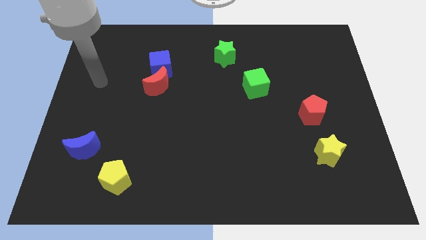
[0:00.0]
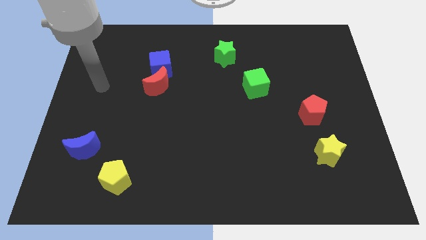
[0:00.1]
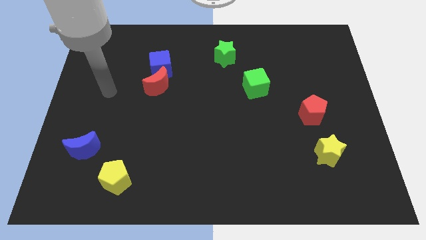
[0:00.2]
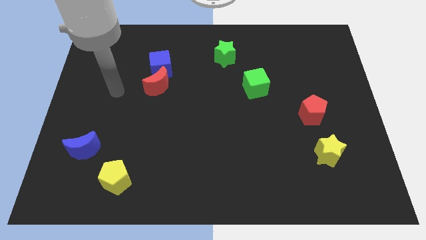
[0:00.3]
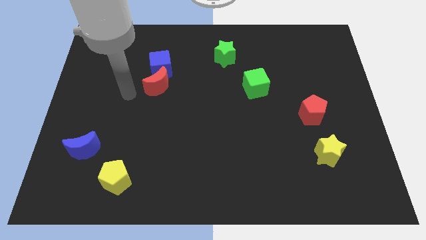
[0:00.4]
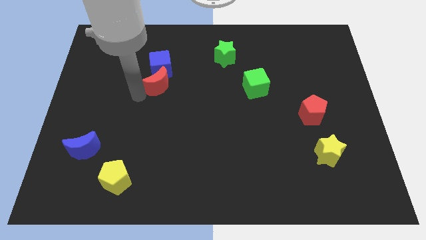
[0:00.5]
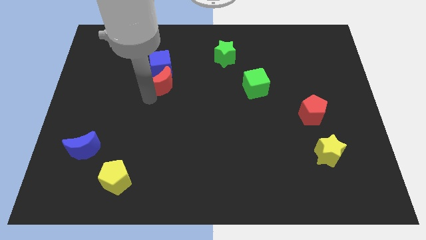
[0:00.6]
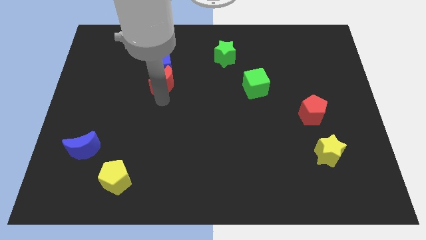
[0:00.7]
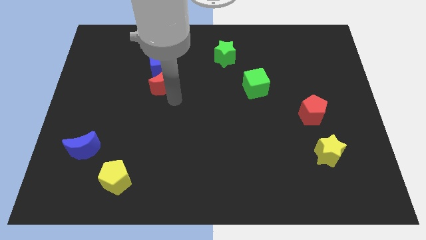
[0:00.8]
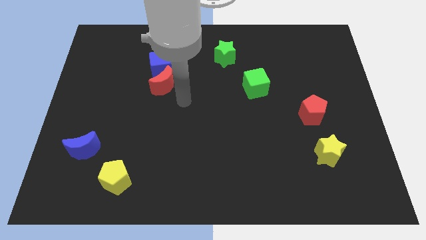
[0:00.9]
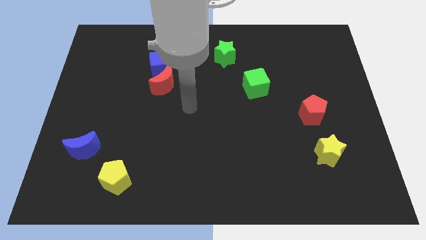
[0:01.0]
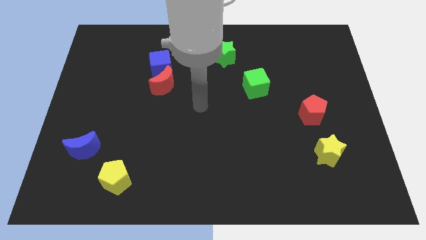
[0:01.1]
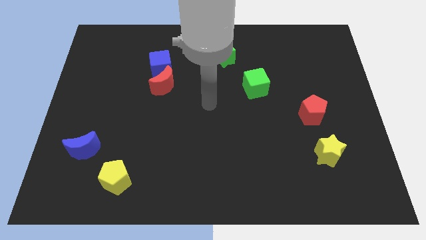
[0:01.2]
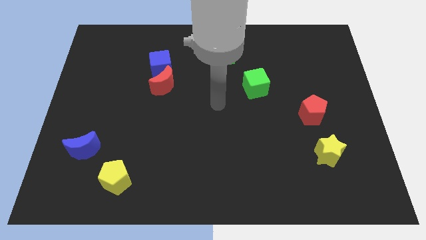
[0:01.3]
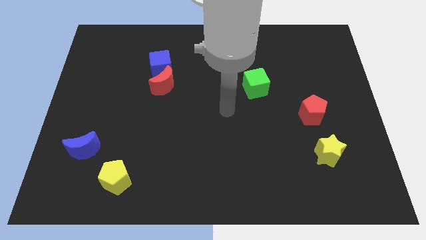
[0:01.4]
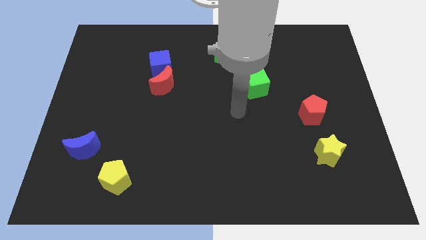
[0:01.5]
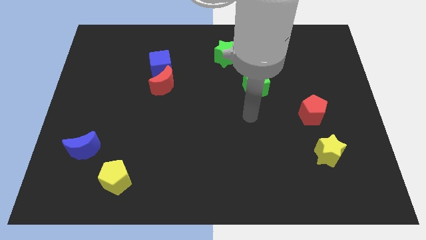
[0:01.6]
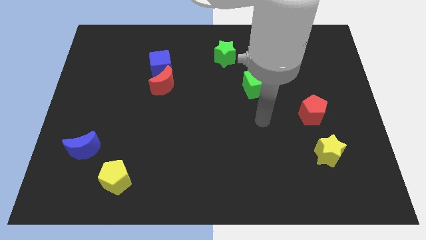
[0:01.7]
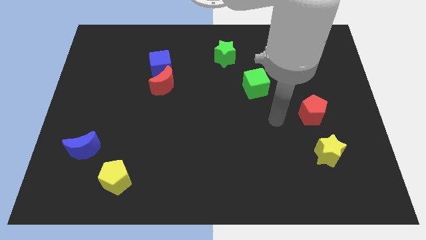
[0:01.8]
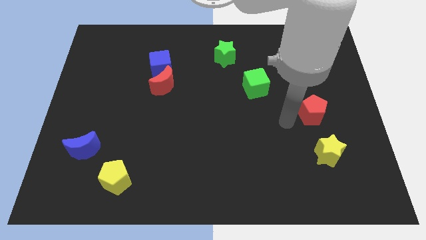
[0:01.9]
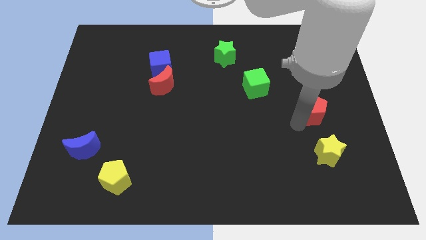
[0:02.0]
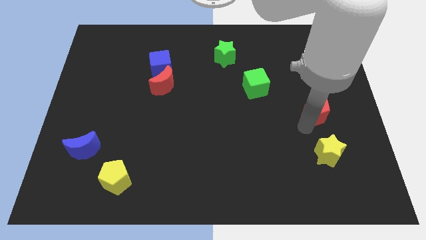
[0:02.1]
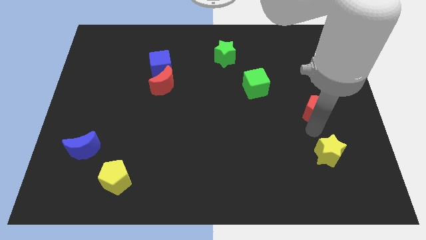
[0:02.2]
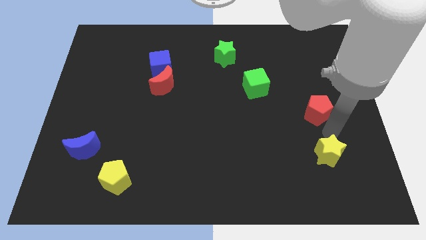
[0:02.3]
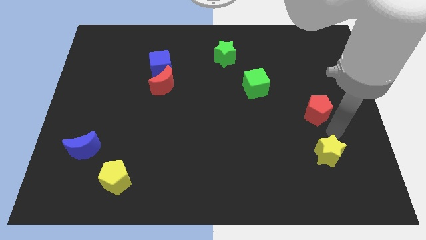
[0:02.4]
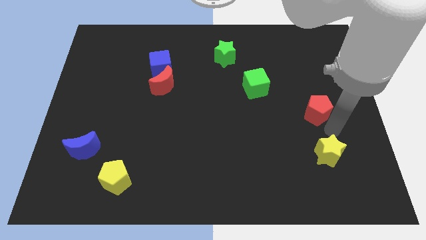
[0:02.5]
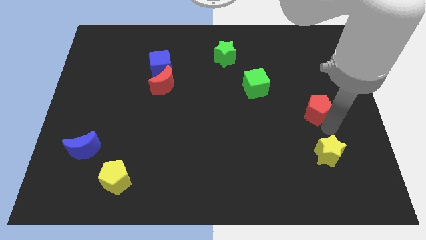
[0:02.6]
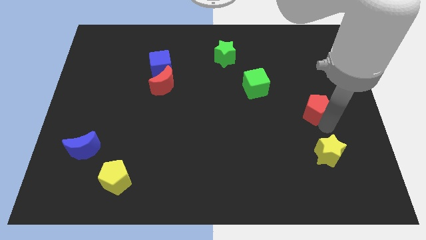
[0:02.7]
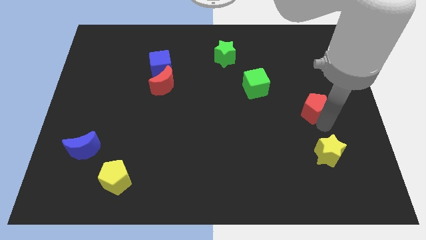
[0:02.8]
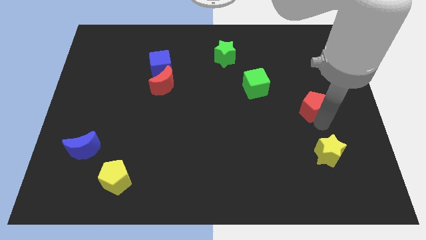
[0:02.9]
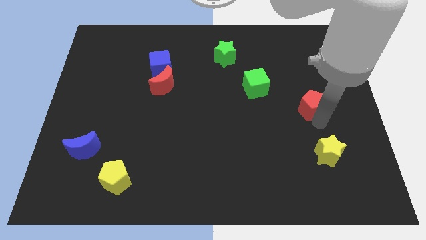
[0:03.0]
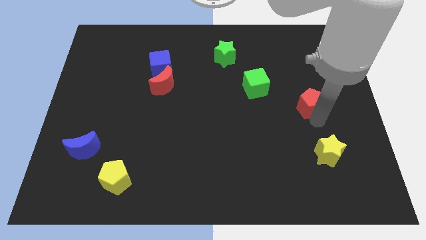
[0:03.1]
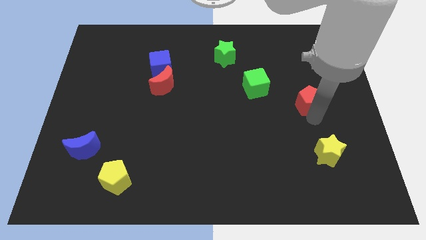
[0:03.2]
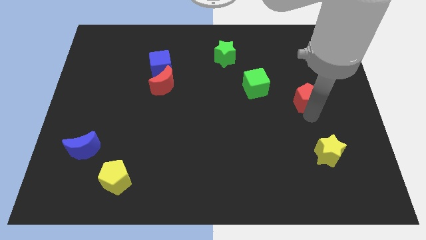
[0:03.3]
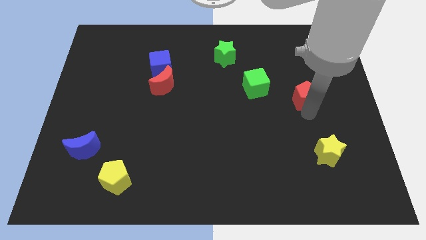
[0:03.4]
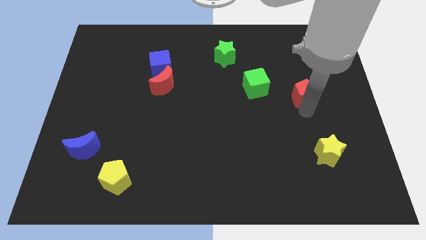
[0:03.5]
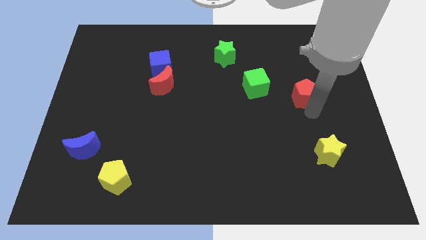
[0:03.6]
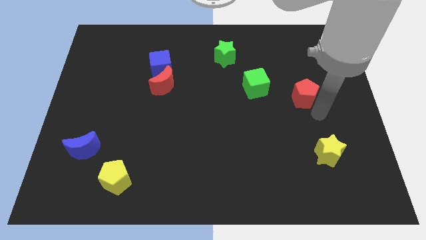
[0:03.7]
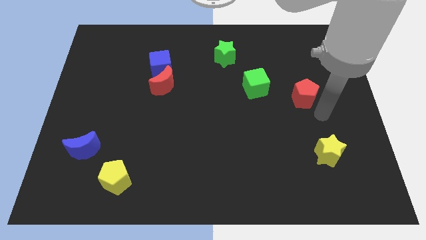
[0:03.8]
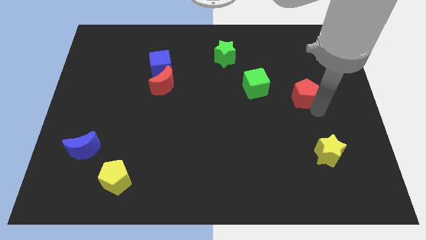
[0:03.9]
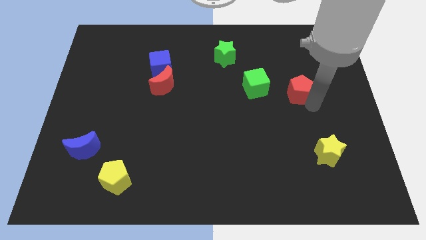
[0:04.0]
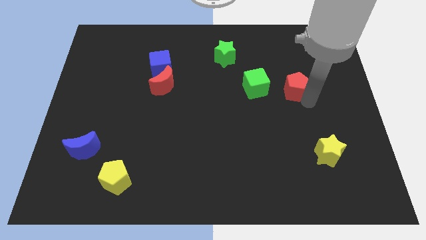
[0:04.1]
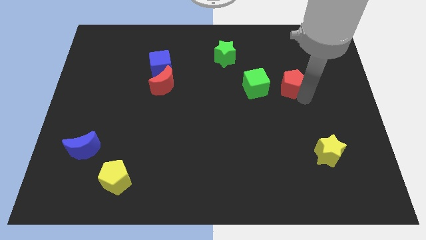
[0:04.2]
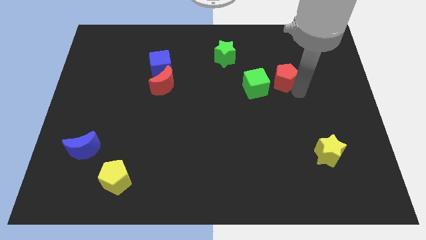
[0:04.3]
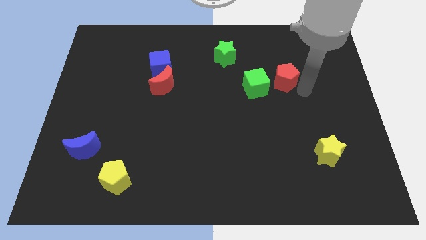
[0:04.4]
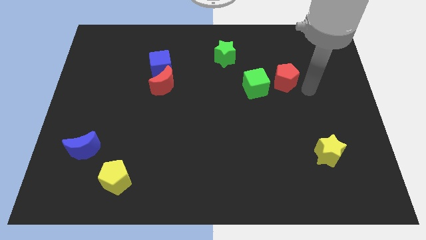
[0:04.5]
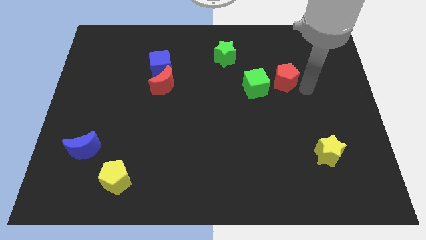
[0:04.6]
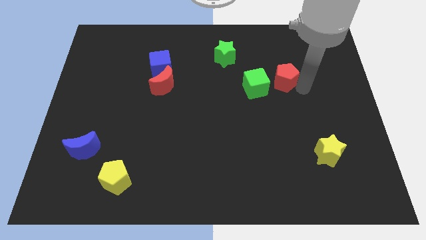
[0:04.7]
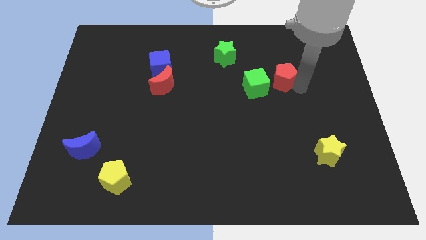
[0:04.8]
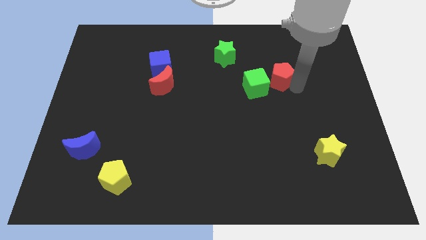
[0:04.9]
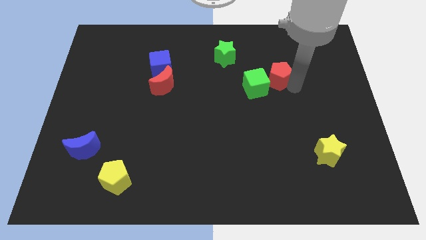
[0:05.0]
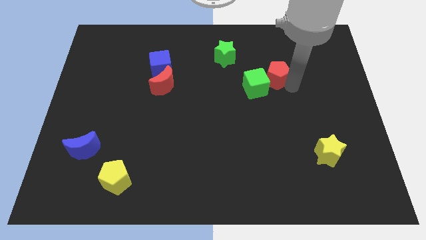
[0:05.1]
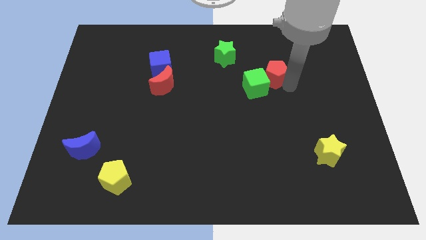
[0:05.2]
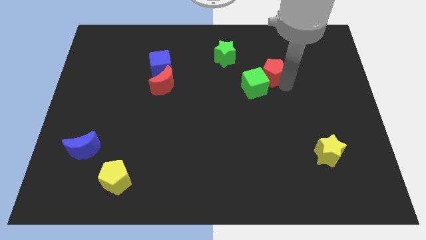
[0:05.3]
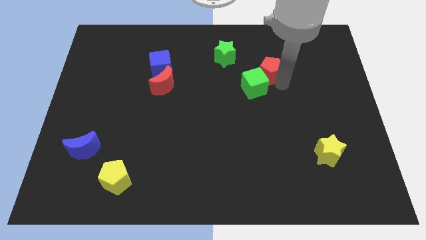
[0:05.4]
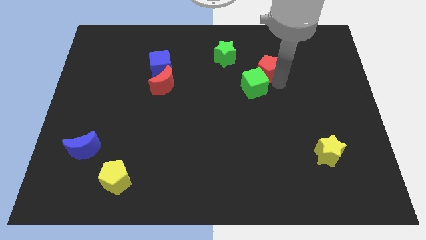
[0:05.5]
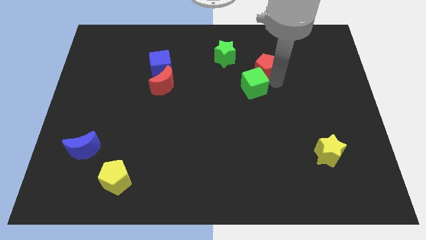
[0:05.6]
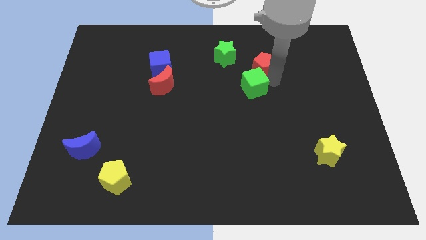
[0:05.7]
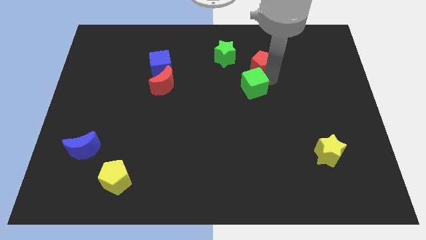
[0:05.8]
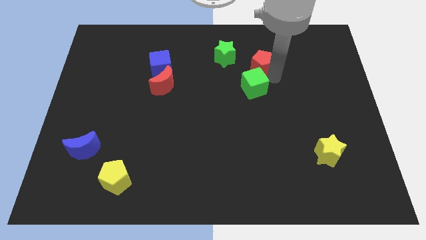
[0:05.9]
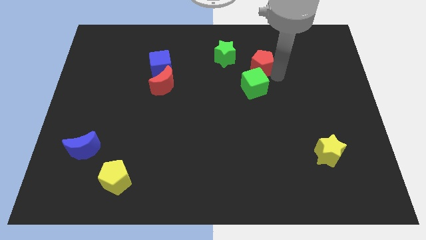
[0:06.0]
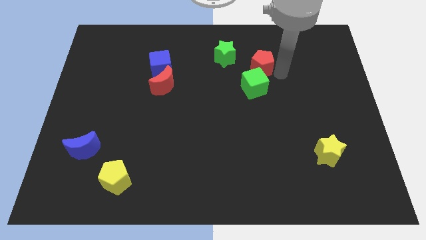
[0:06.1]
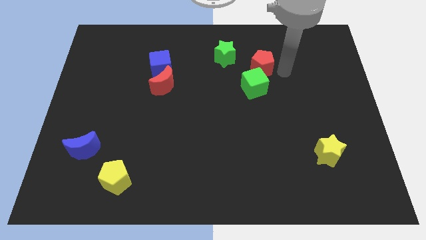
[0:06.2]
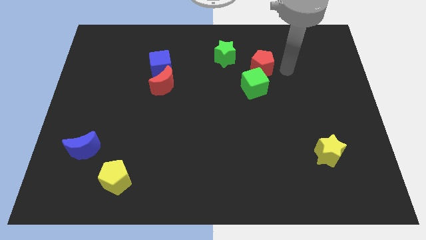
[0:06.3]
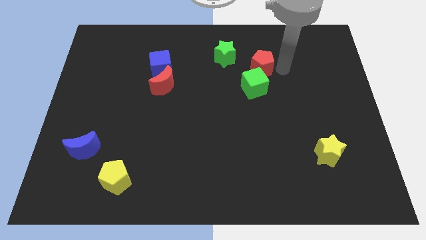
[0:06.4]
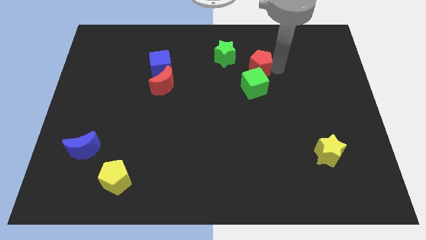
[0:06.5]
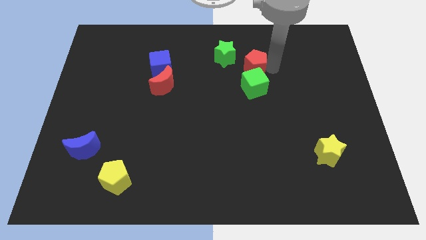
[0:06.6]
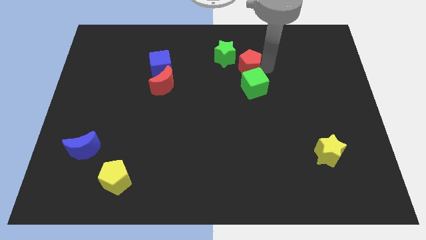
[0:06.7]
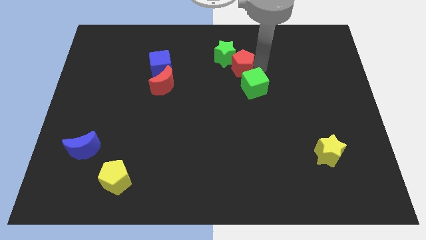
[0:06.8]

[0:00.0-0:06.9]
put the red pentagon next to the green star

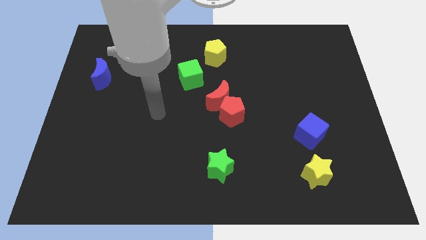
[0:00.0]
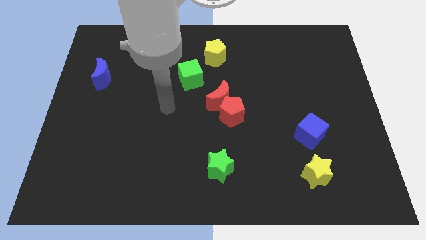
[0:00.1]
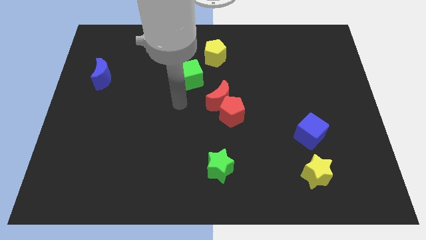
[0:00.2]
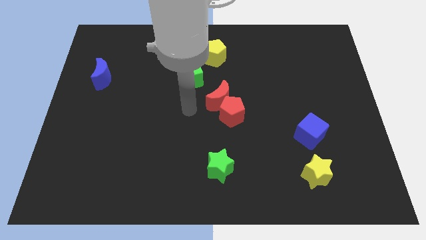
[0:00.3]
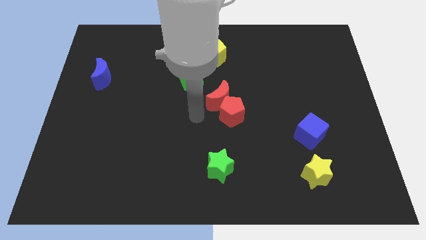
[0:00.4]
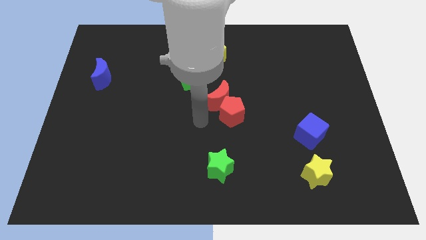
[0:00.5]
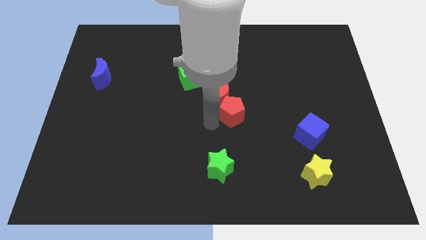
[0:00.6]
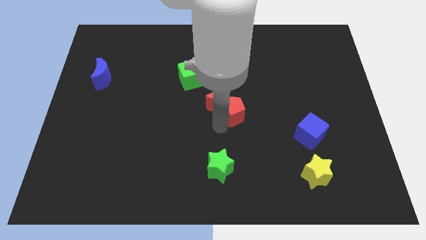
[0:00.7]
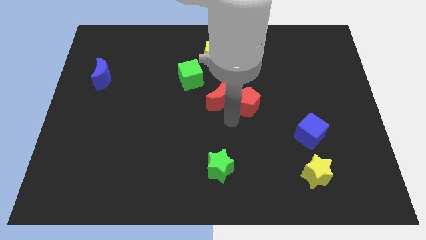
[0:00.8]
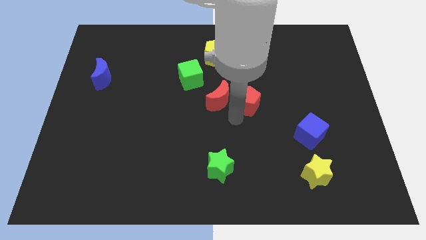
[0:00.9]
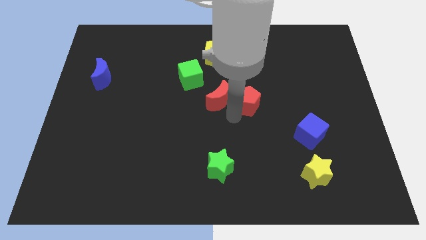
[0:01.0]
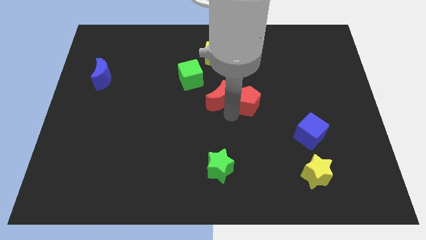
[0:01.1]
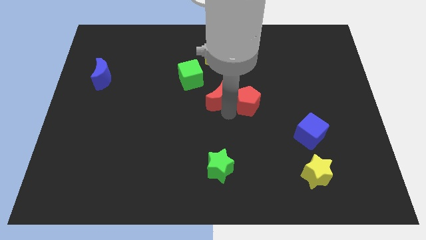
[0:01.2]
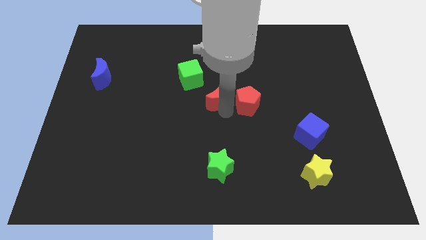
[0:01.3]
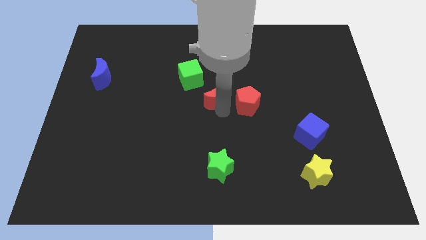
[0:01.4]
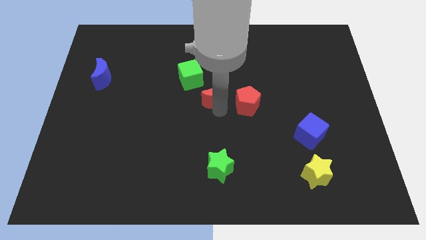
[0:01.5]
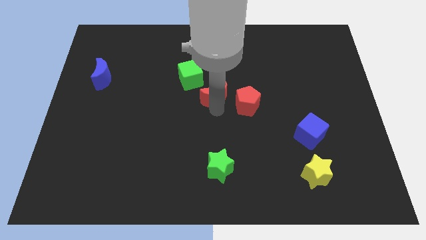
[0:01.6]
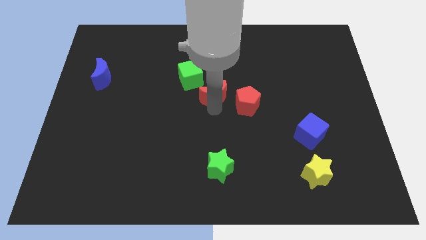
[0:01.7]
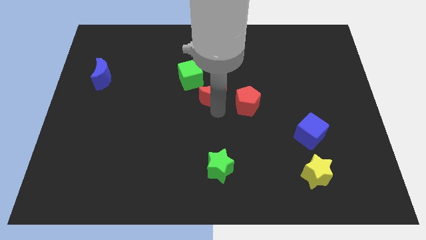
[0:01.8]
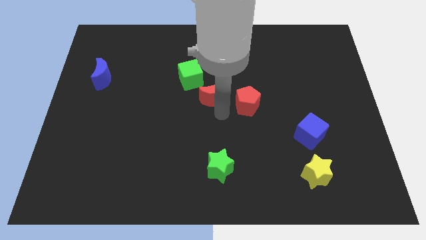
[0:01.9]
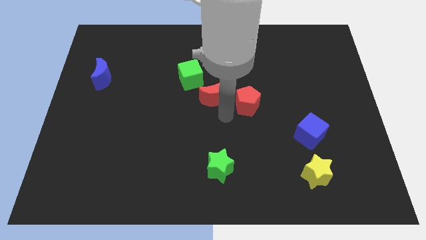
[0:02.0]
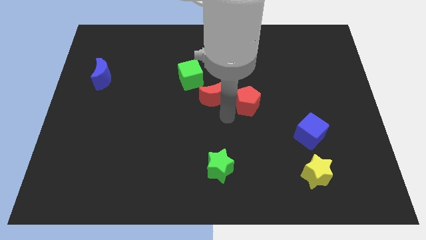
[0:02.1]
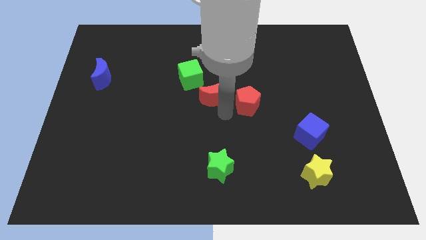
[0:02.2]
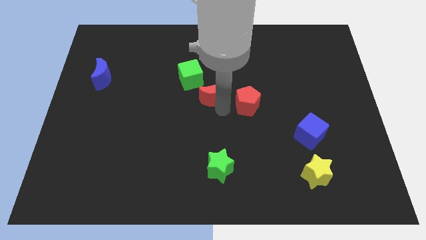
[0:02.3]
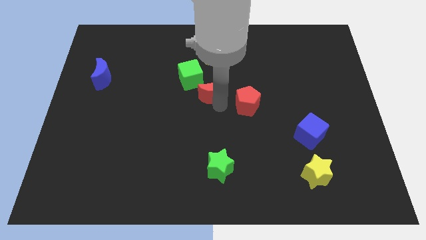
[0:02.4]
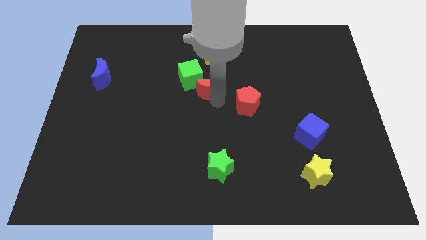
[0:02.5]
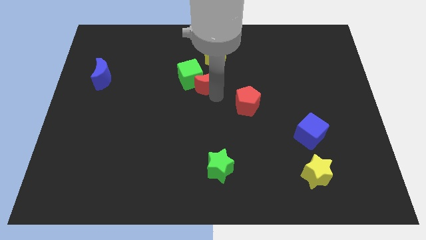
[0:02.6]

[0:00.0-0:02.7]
push the red moon next to the green cube
